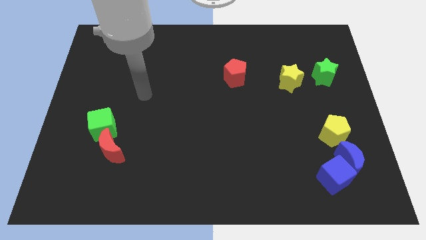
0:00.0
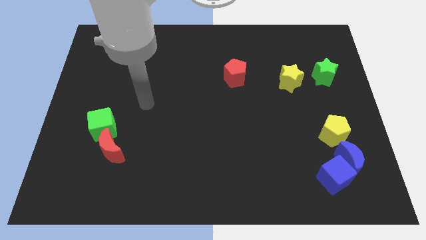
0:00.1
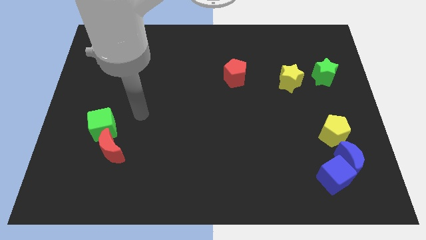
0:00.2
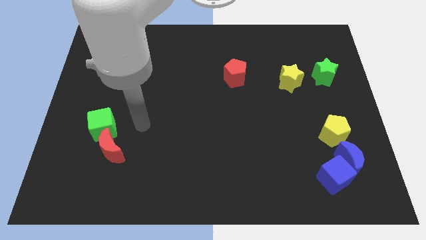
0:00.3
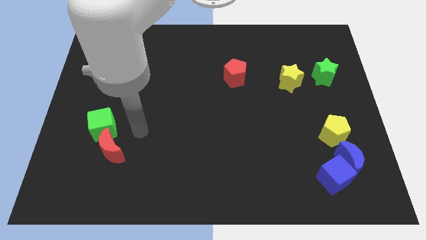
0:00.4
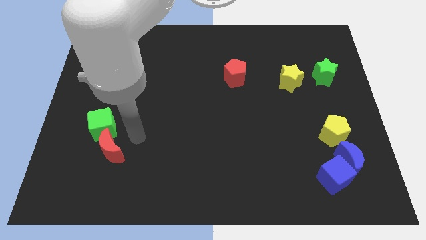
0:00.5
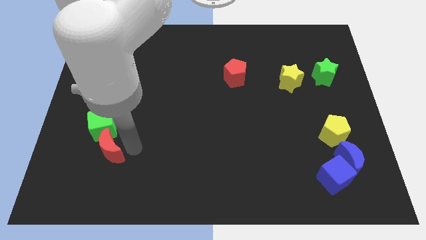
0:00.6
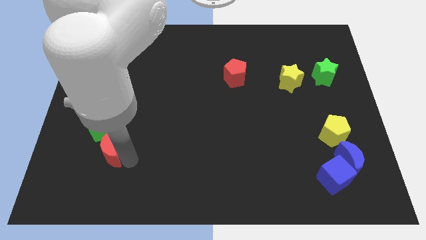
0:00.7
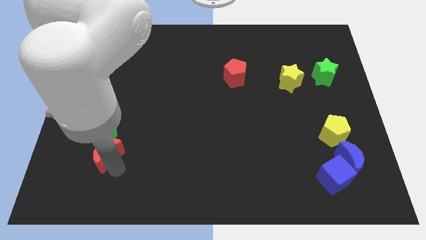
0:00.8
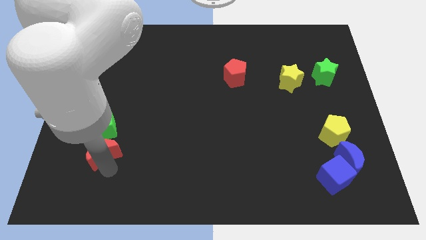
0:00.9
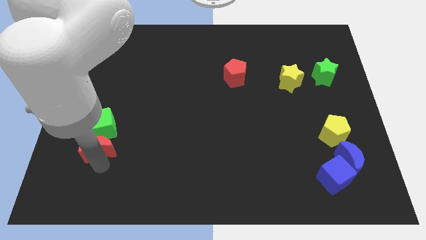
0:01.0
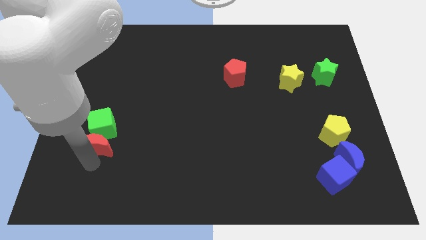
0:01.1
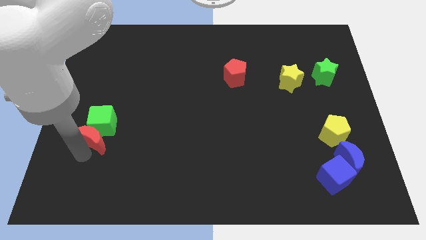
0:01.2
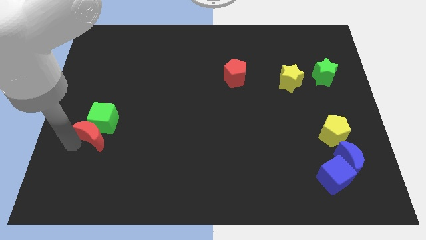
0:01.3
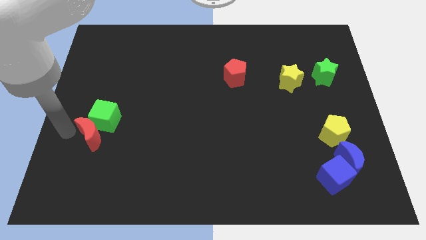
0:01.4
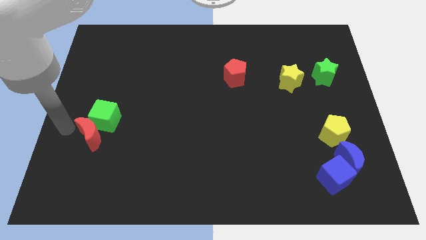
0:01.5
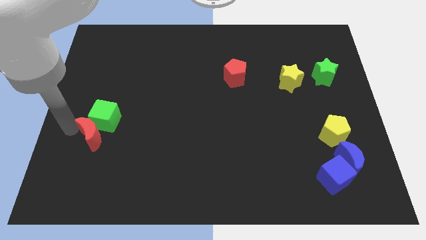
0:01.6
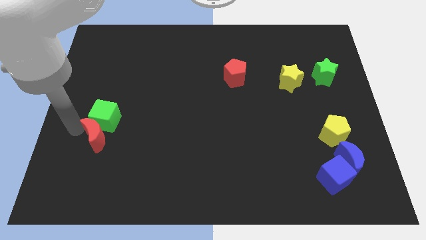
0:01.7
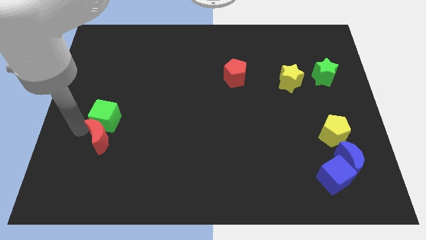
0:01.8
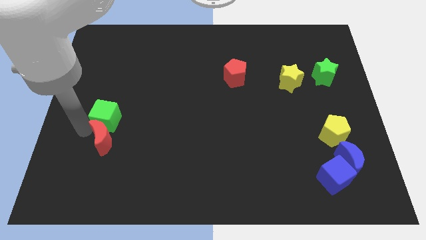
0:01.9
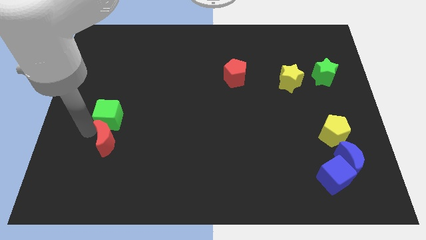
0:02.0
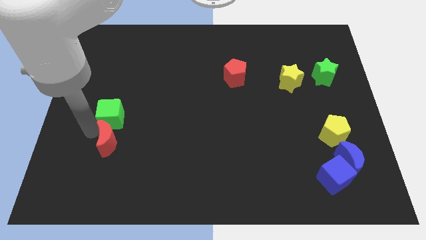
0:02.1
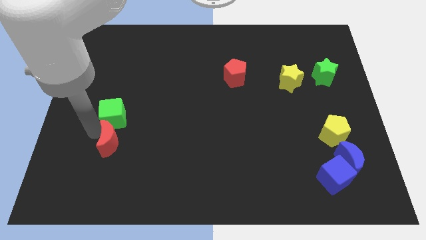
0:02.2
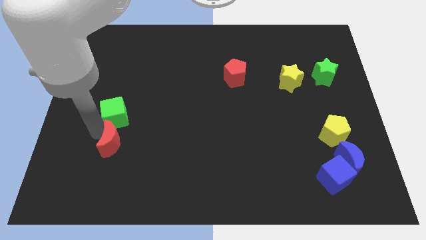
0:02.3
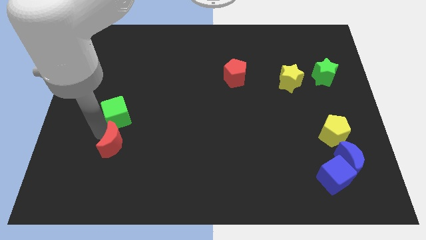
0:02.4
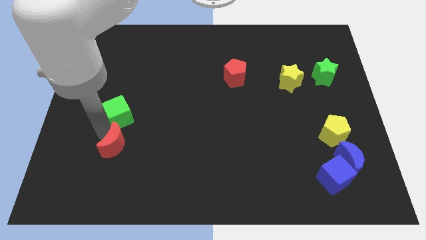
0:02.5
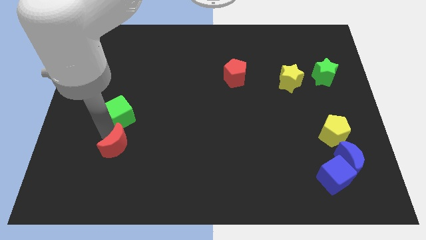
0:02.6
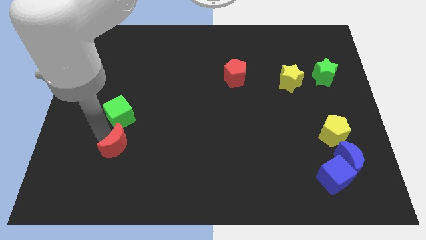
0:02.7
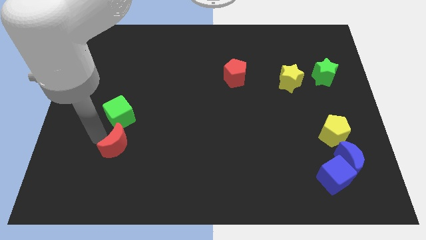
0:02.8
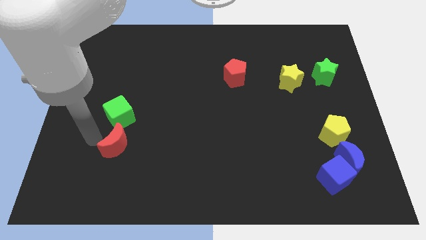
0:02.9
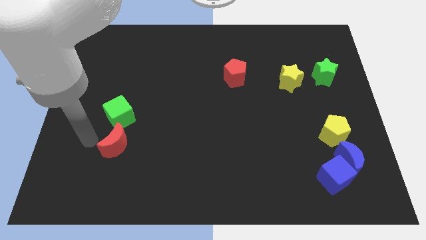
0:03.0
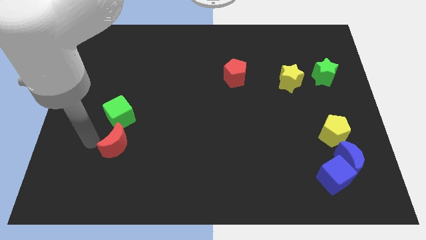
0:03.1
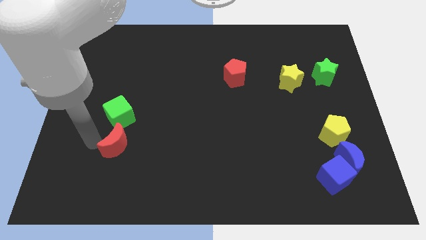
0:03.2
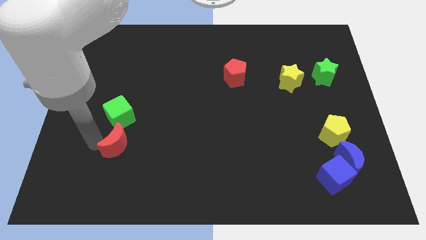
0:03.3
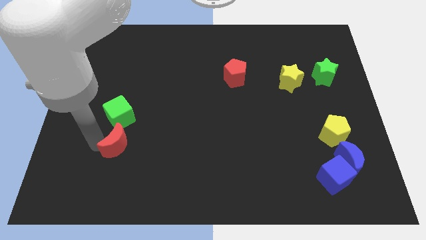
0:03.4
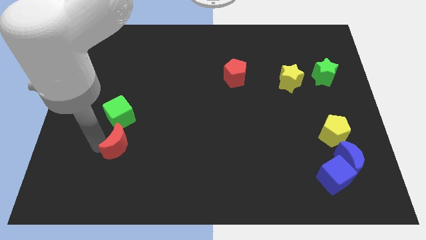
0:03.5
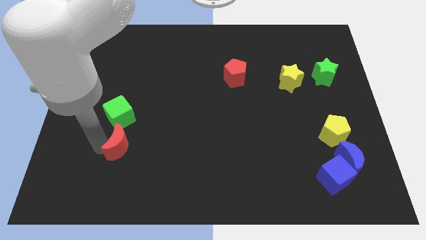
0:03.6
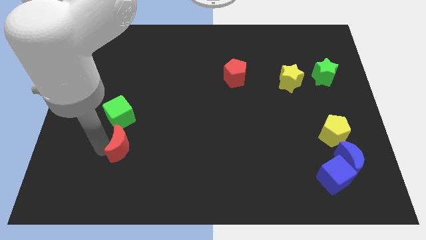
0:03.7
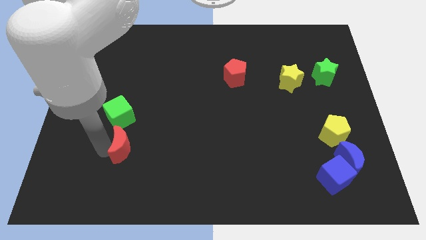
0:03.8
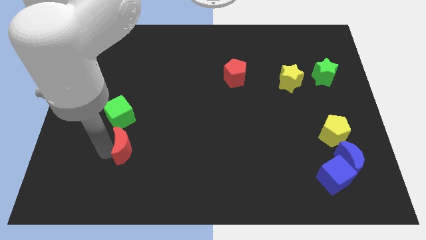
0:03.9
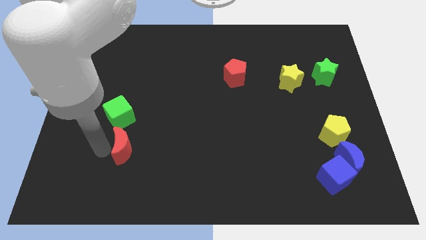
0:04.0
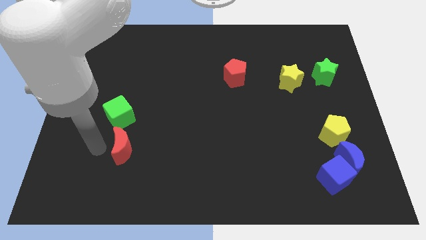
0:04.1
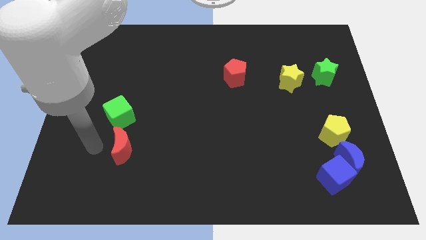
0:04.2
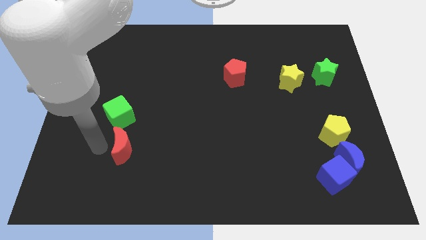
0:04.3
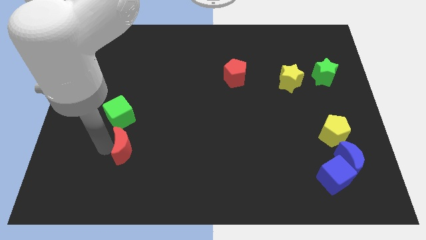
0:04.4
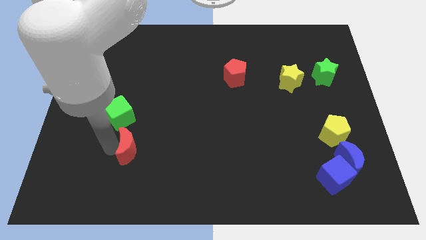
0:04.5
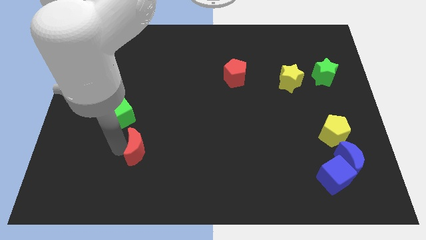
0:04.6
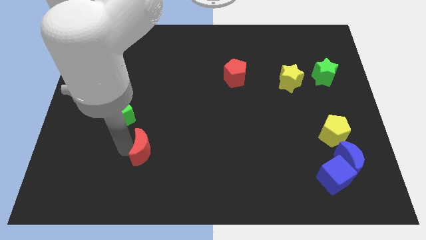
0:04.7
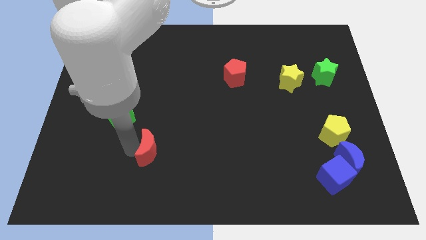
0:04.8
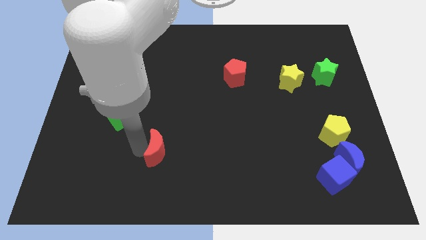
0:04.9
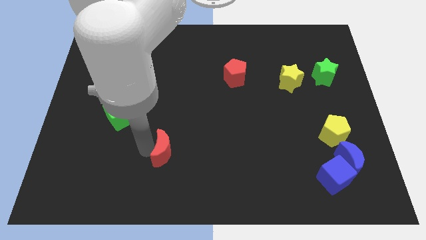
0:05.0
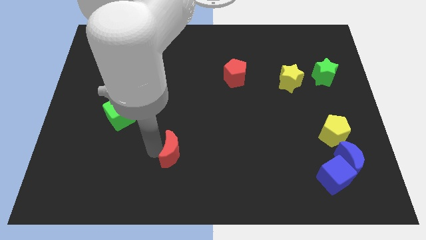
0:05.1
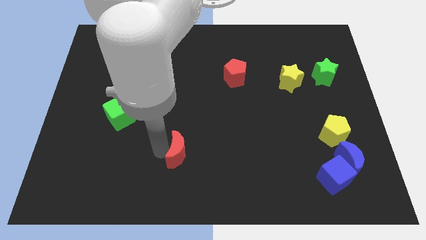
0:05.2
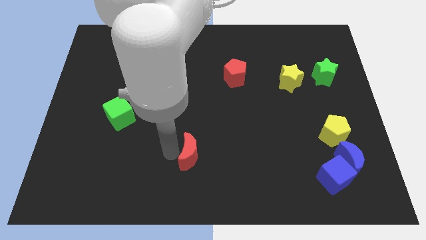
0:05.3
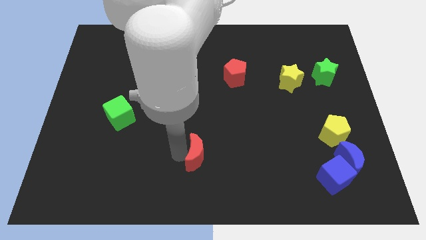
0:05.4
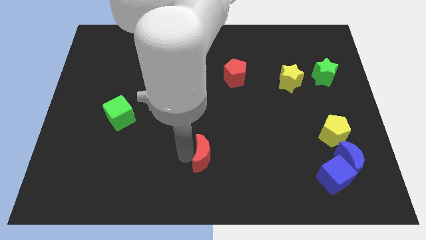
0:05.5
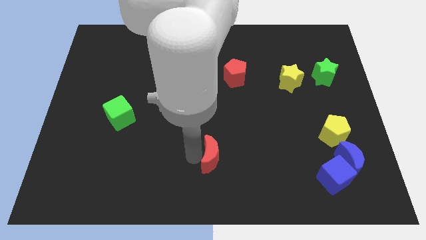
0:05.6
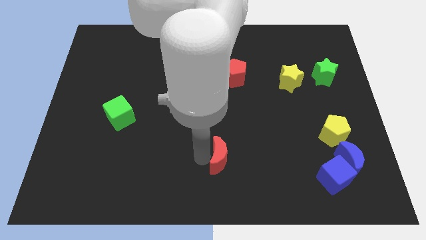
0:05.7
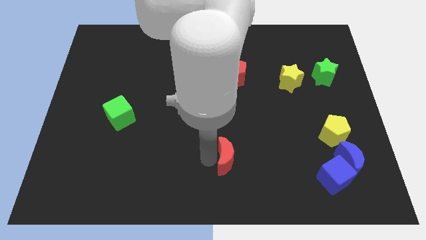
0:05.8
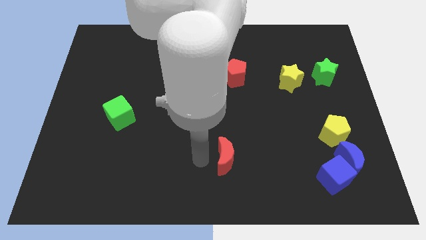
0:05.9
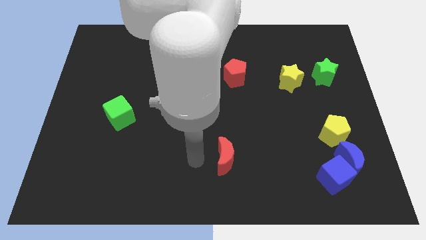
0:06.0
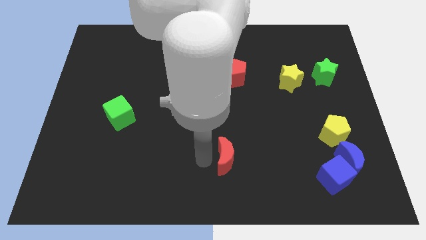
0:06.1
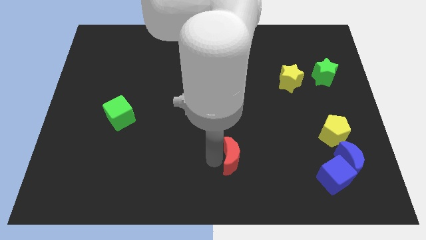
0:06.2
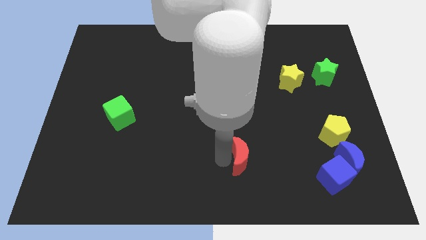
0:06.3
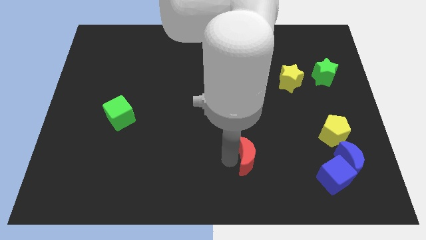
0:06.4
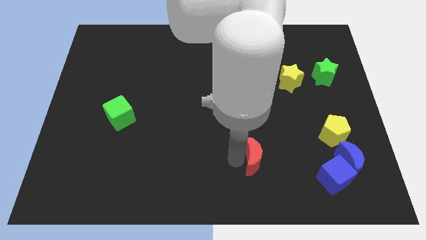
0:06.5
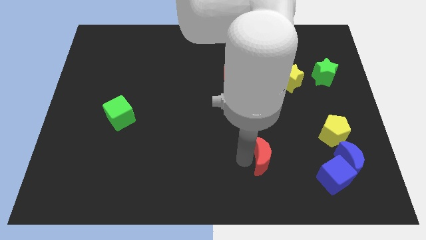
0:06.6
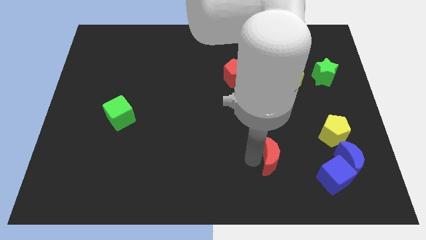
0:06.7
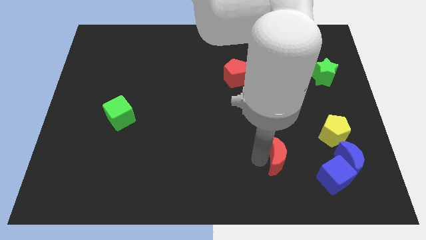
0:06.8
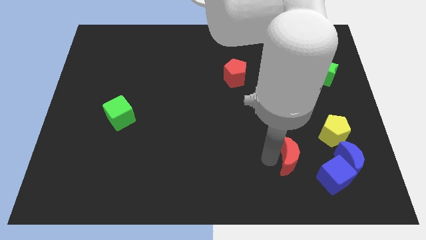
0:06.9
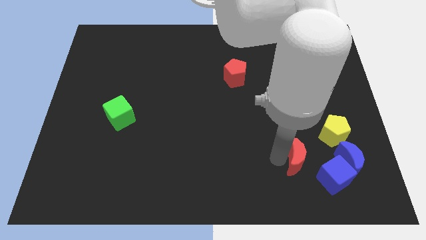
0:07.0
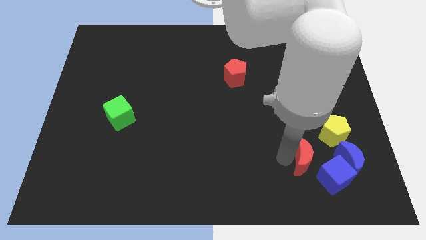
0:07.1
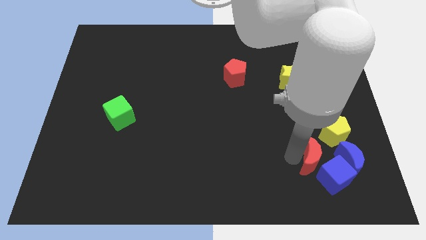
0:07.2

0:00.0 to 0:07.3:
move the red moon to the blue cube
